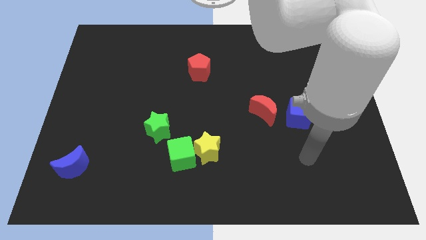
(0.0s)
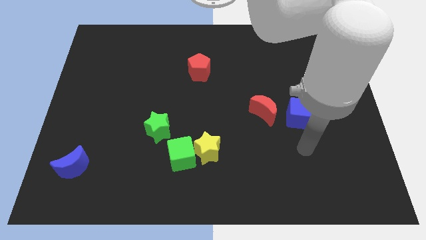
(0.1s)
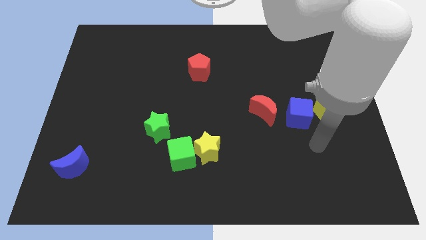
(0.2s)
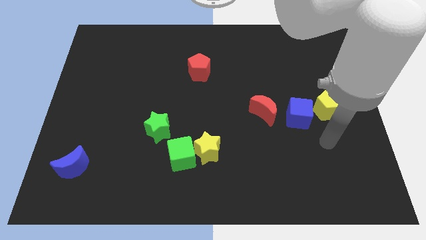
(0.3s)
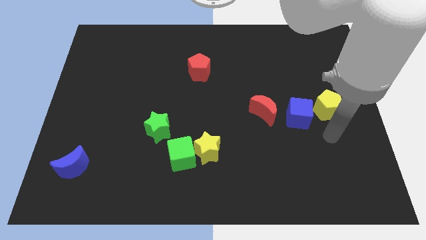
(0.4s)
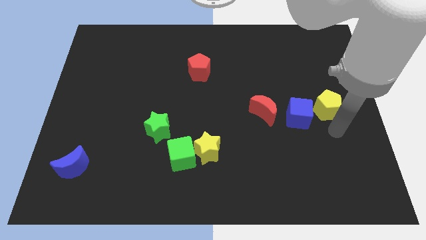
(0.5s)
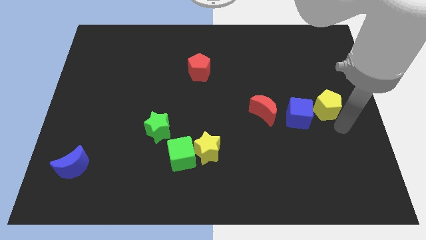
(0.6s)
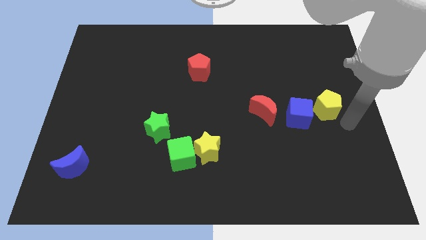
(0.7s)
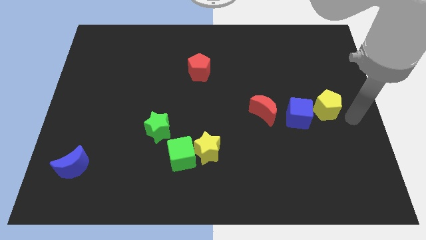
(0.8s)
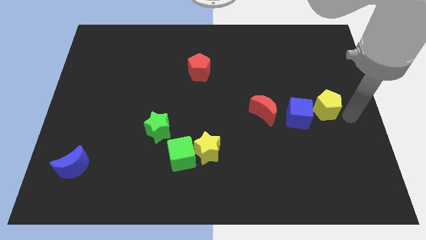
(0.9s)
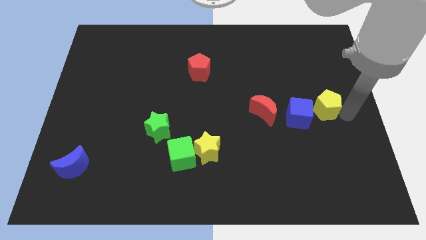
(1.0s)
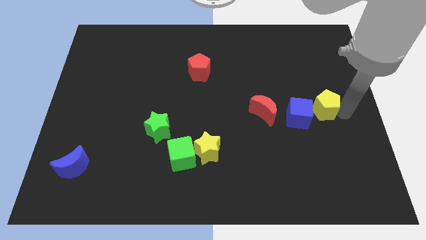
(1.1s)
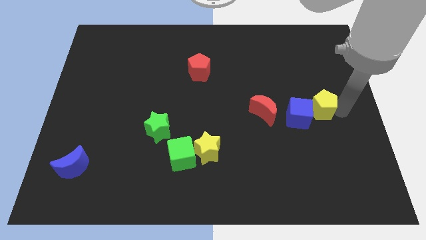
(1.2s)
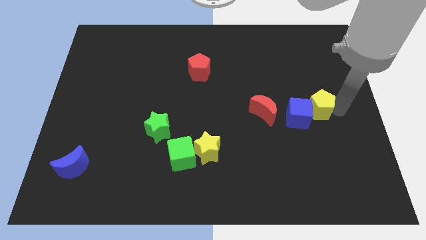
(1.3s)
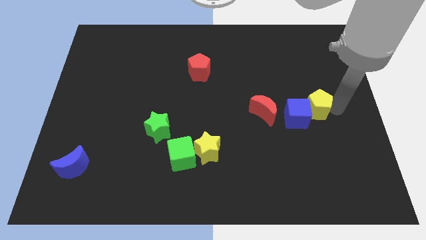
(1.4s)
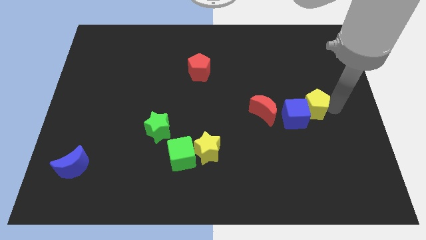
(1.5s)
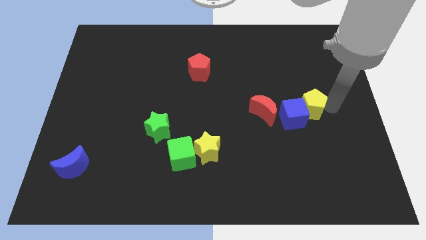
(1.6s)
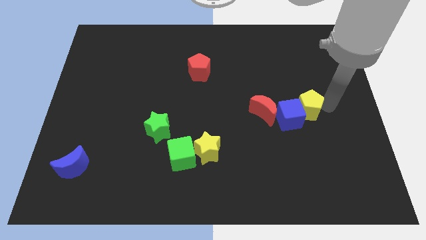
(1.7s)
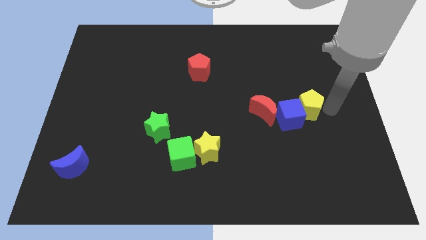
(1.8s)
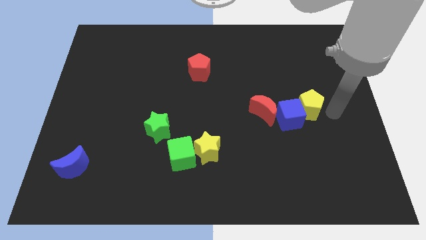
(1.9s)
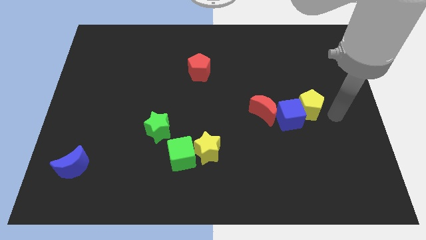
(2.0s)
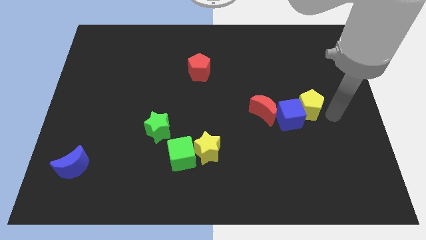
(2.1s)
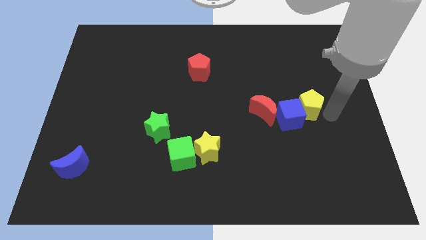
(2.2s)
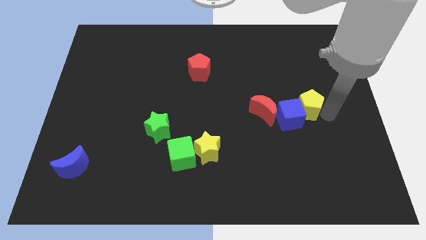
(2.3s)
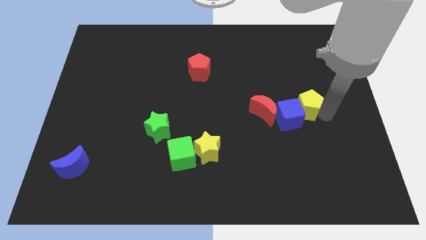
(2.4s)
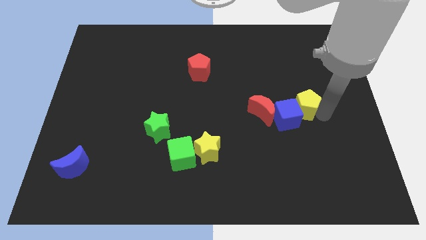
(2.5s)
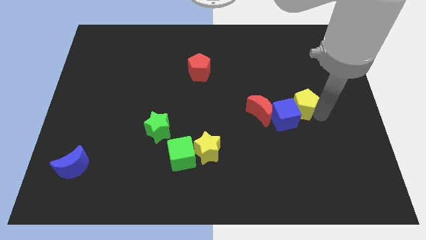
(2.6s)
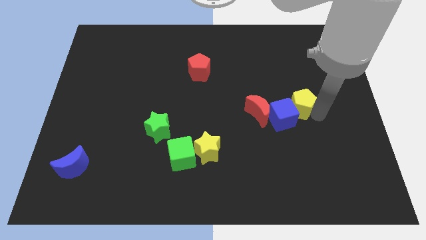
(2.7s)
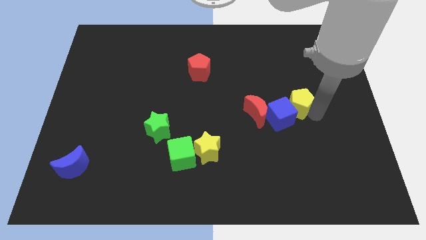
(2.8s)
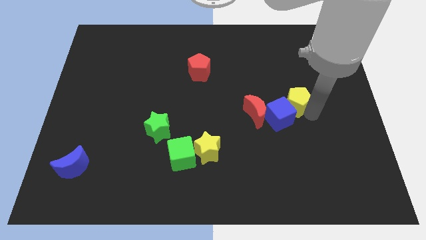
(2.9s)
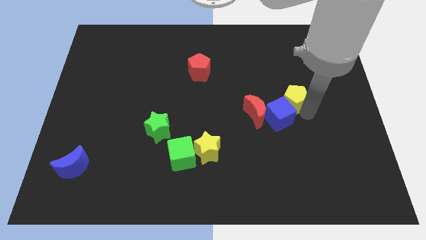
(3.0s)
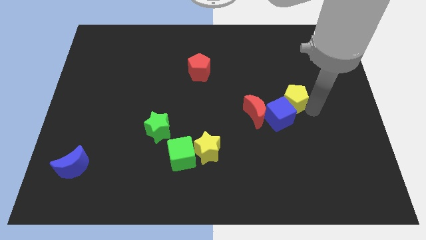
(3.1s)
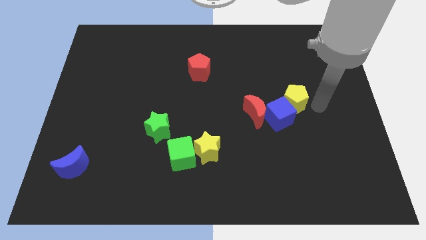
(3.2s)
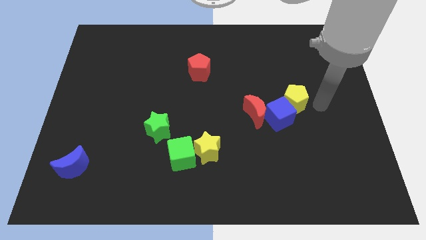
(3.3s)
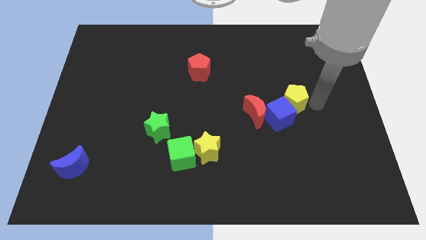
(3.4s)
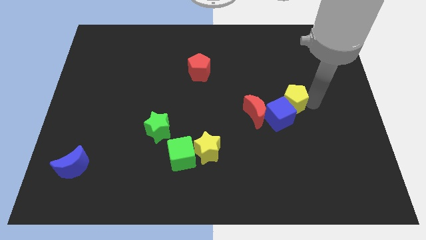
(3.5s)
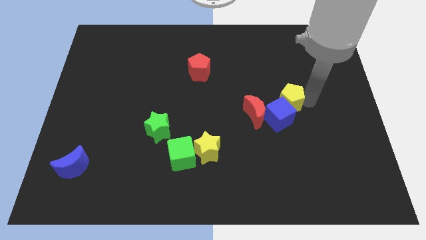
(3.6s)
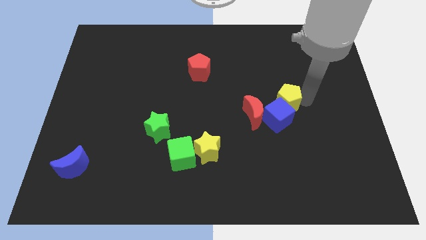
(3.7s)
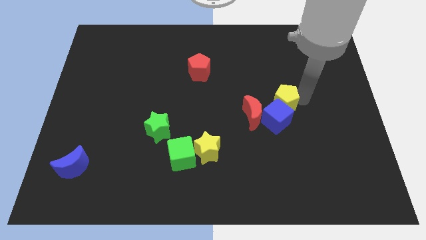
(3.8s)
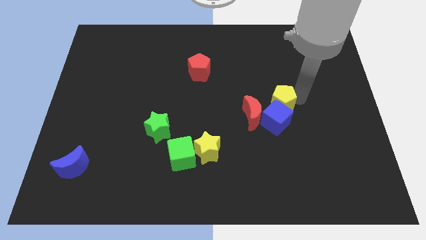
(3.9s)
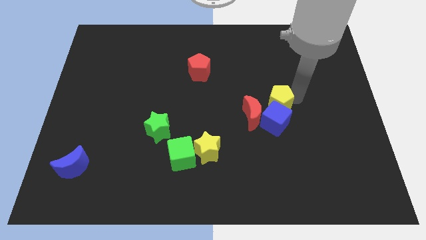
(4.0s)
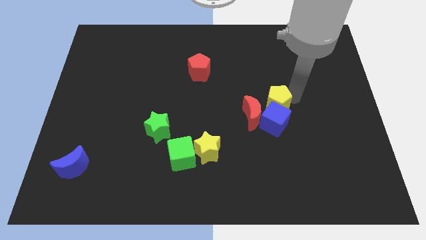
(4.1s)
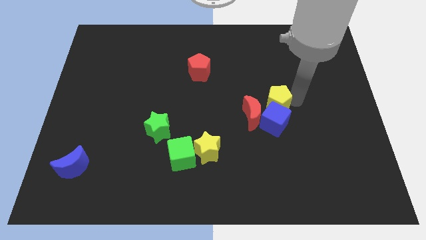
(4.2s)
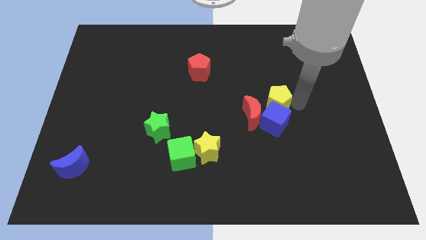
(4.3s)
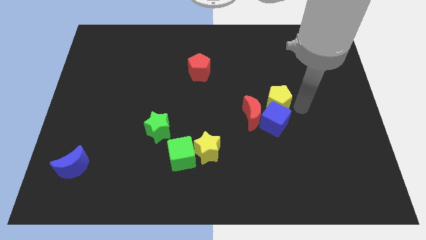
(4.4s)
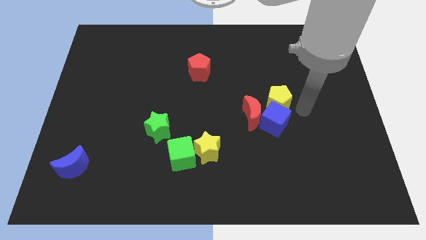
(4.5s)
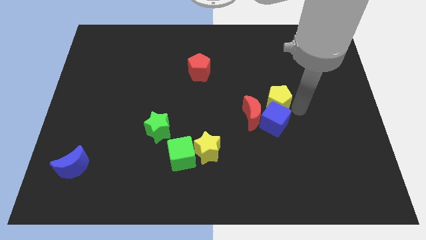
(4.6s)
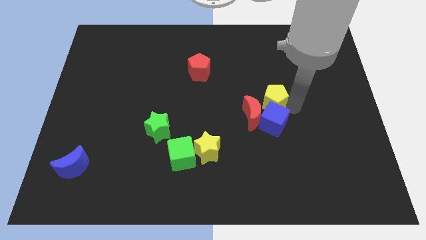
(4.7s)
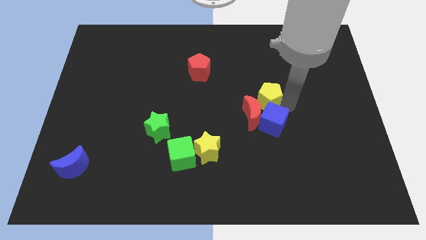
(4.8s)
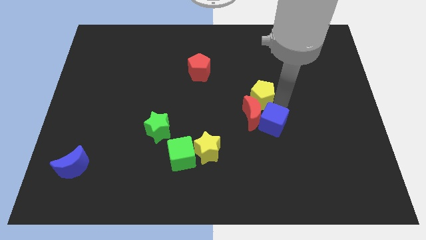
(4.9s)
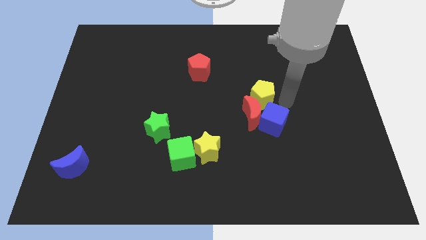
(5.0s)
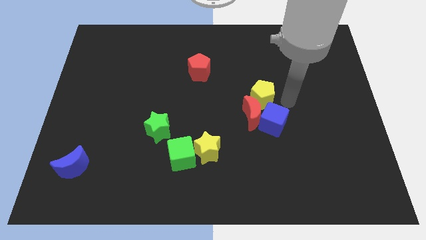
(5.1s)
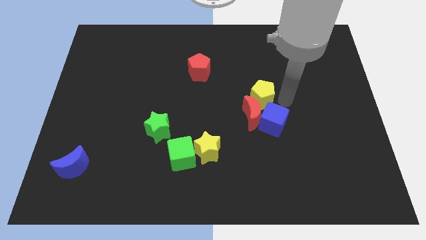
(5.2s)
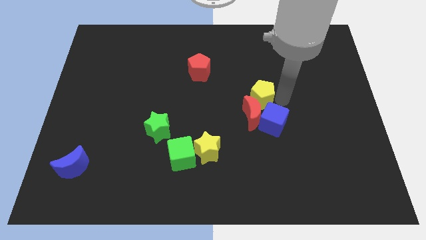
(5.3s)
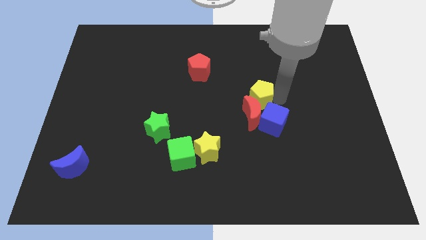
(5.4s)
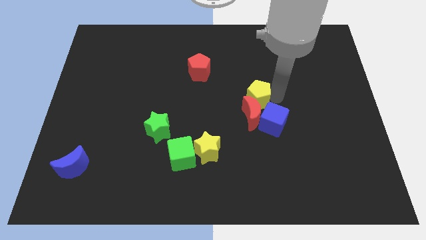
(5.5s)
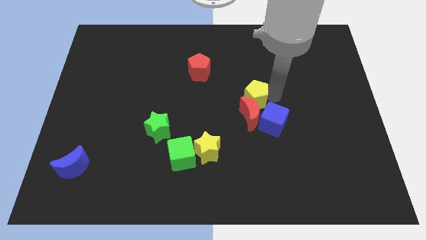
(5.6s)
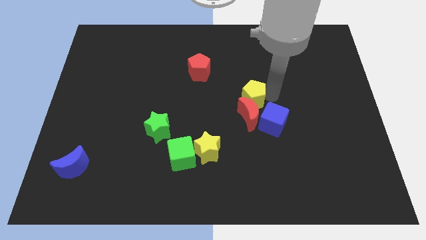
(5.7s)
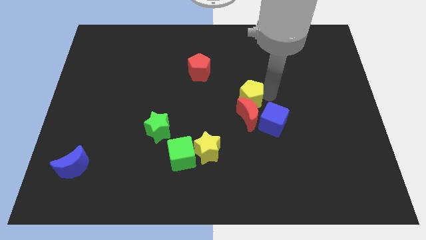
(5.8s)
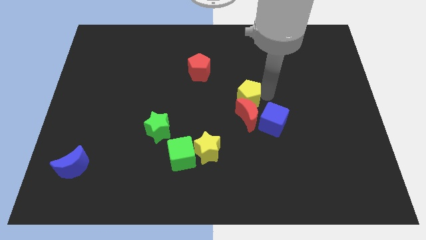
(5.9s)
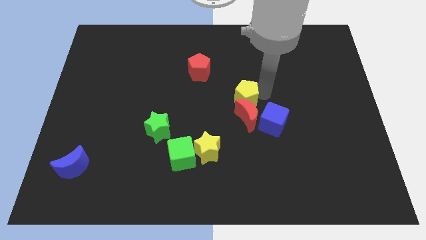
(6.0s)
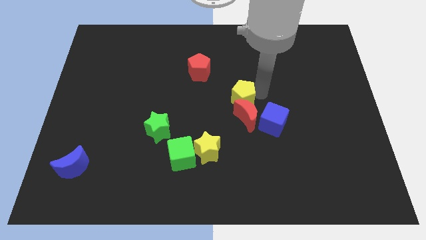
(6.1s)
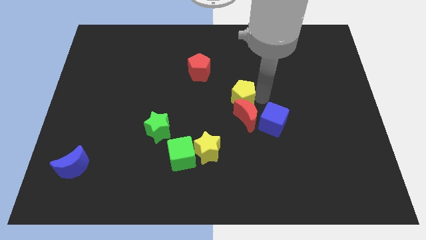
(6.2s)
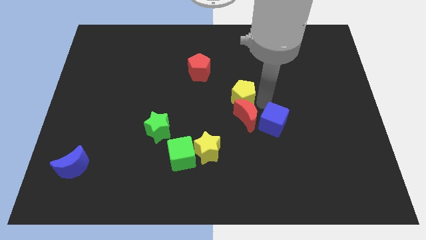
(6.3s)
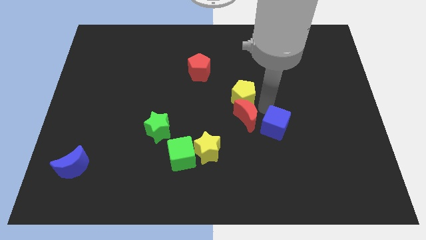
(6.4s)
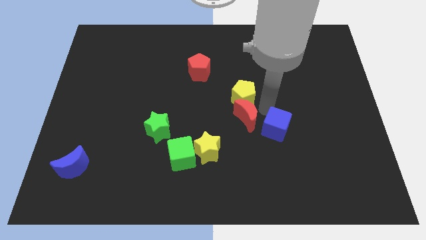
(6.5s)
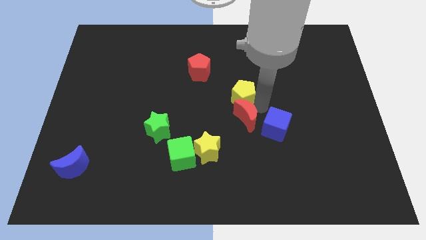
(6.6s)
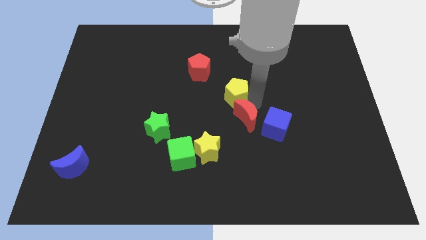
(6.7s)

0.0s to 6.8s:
slide the yellow pentagon to the bottom right side of the red pentagon

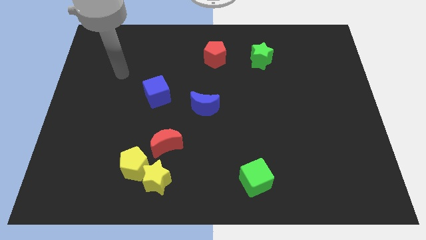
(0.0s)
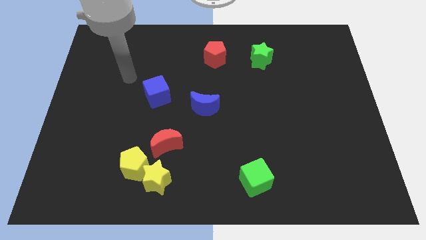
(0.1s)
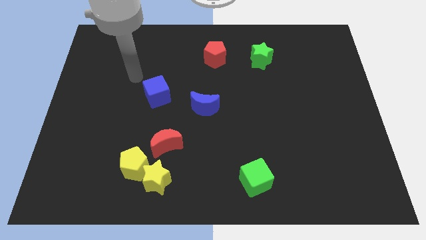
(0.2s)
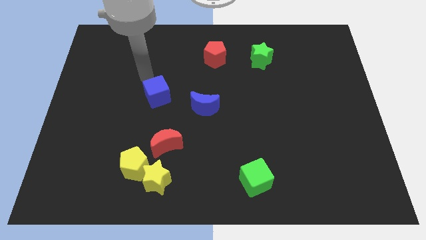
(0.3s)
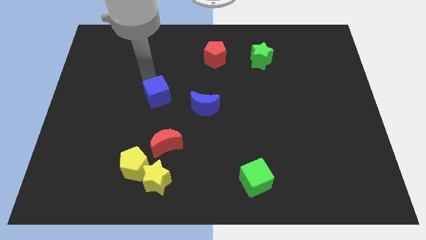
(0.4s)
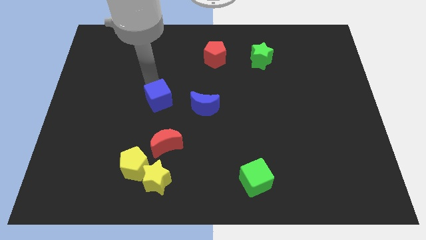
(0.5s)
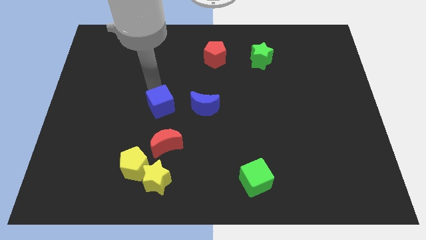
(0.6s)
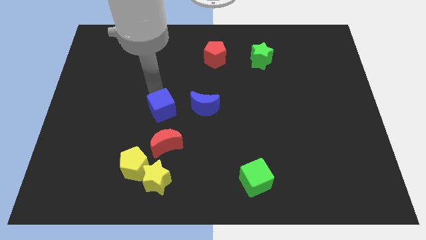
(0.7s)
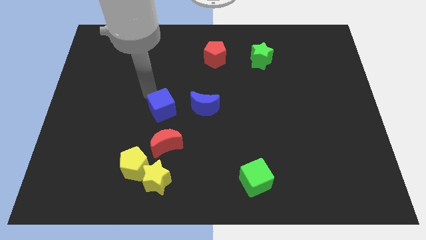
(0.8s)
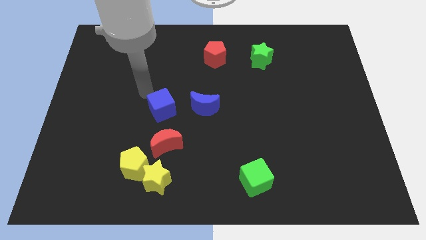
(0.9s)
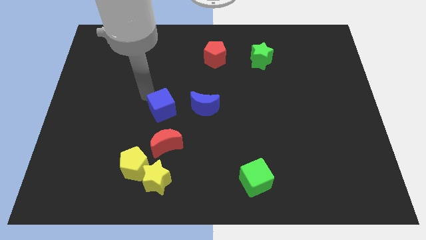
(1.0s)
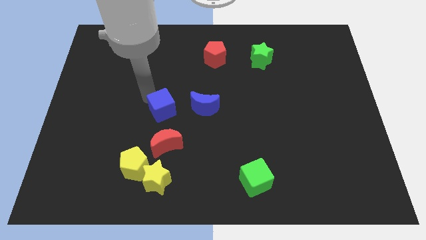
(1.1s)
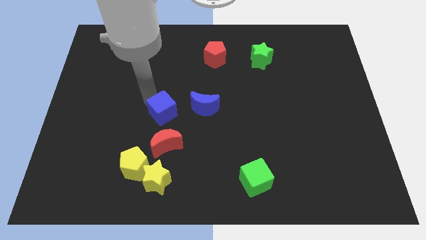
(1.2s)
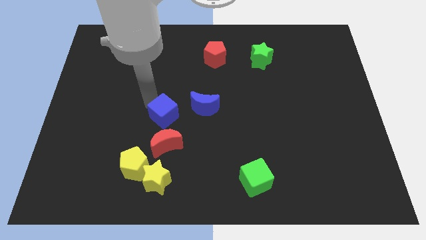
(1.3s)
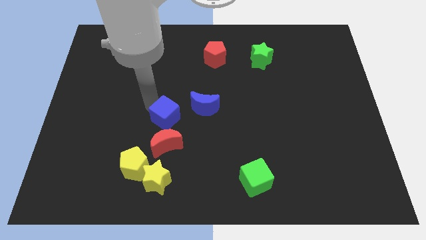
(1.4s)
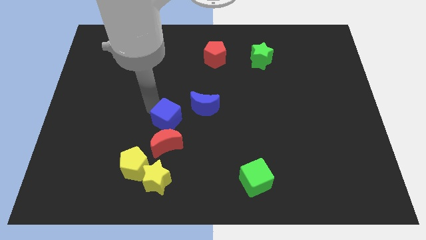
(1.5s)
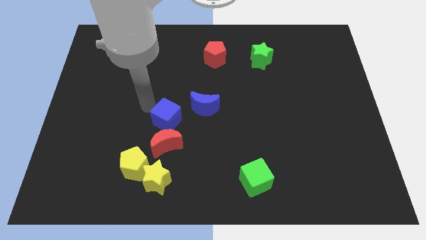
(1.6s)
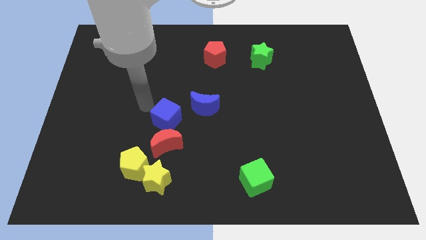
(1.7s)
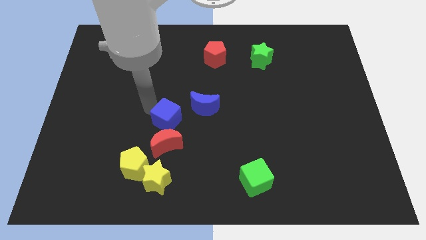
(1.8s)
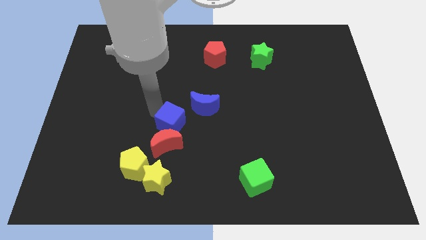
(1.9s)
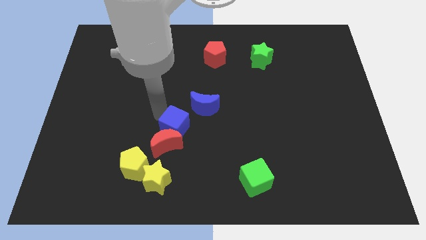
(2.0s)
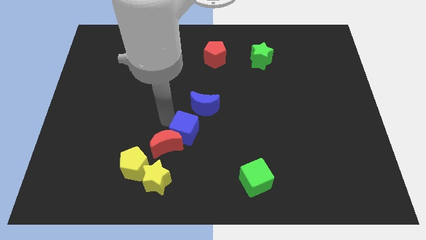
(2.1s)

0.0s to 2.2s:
put the blue cube to the bottom side of the blue moon
